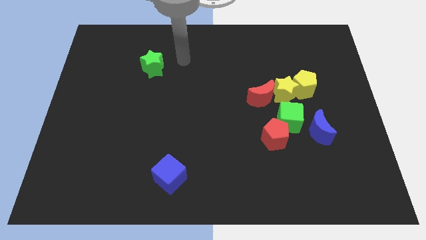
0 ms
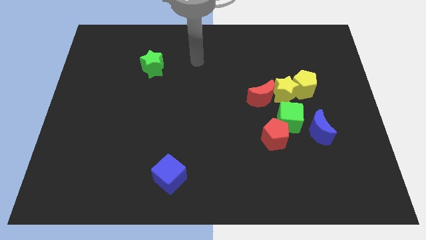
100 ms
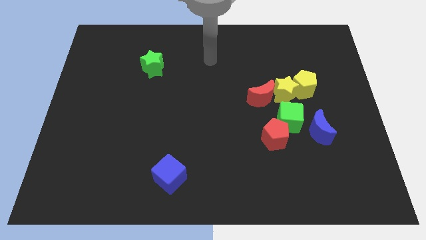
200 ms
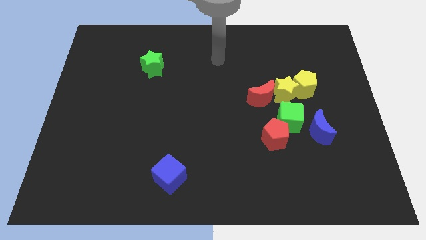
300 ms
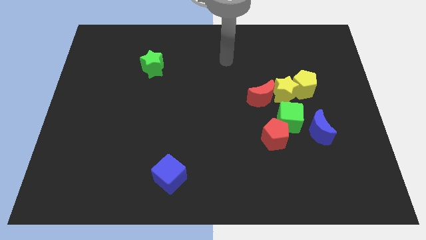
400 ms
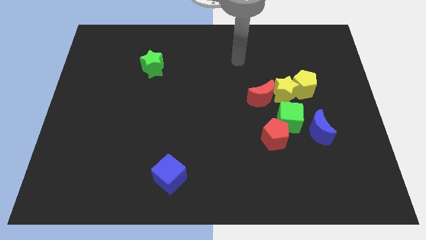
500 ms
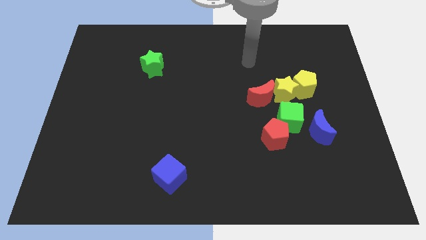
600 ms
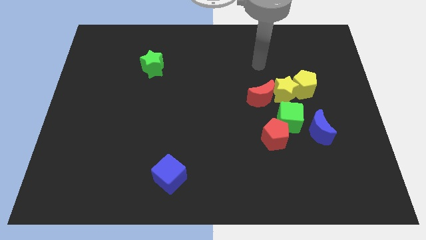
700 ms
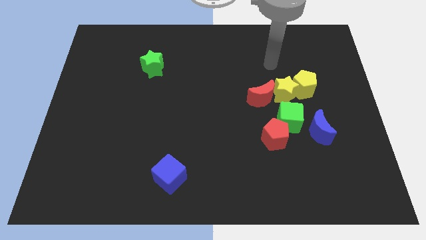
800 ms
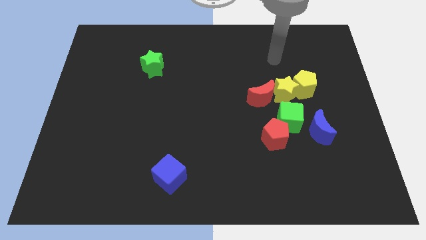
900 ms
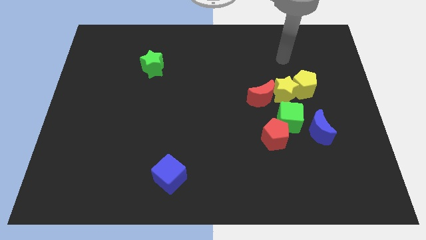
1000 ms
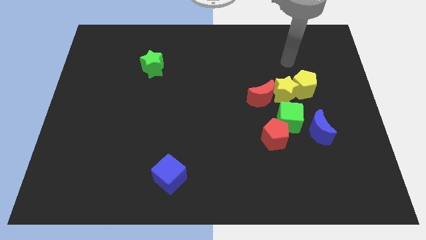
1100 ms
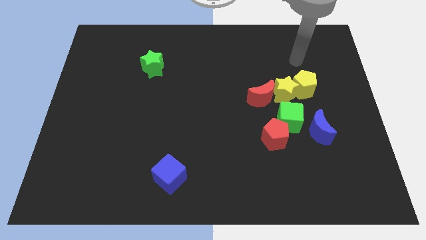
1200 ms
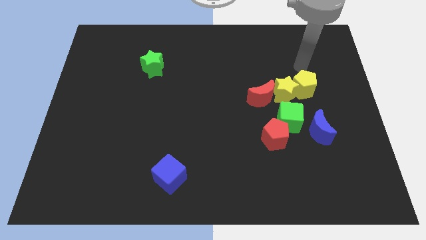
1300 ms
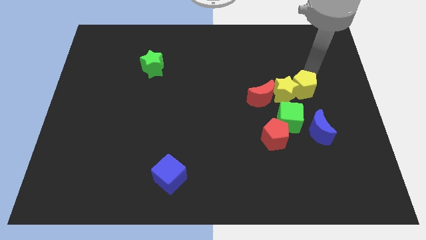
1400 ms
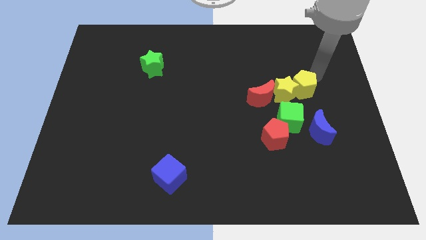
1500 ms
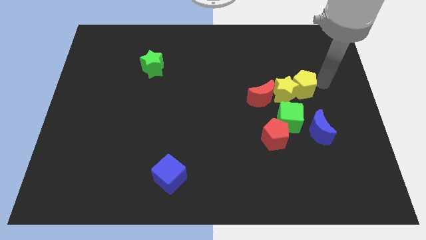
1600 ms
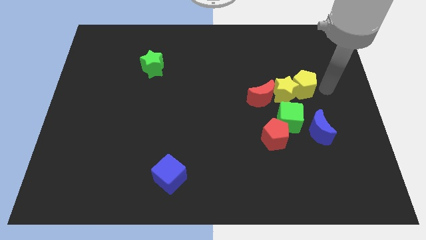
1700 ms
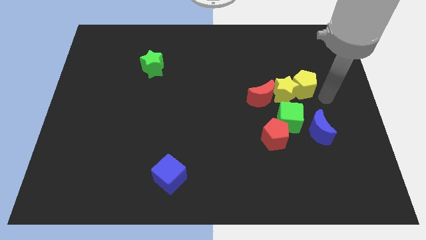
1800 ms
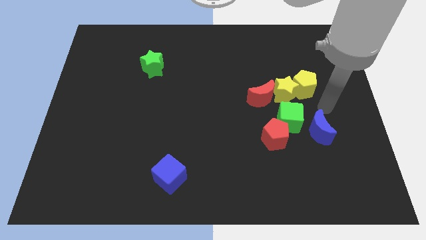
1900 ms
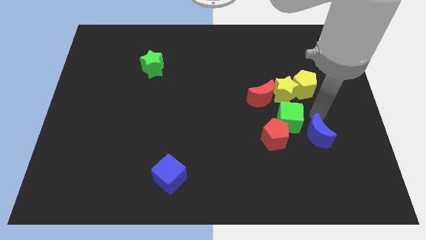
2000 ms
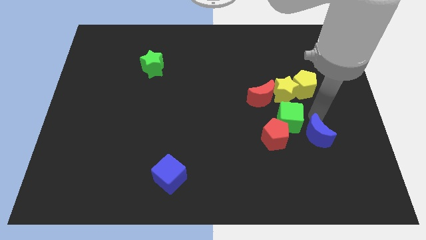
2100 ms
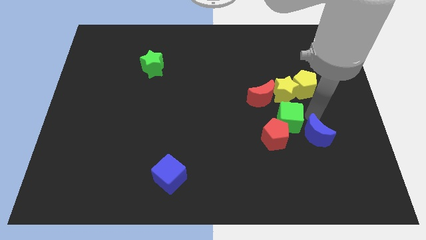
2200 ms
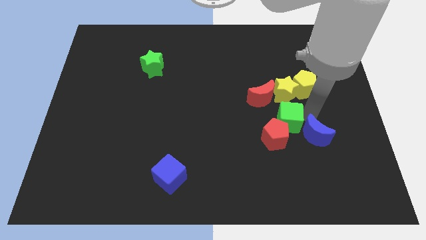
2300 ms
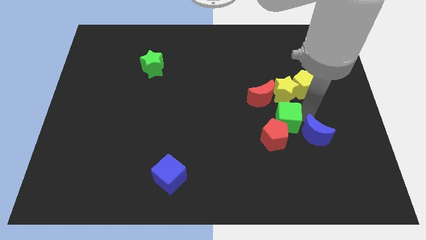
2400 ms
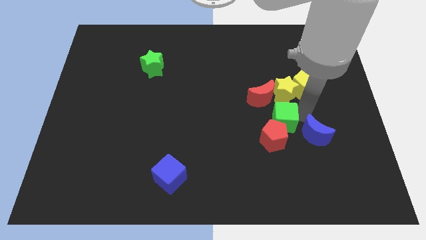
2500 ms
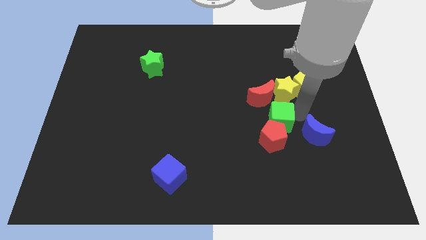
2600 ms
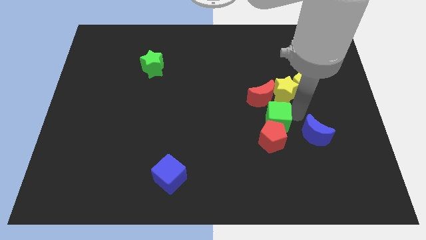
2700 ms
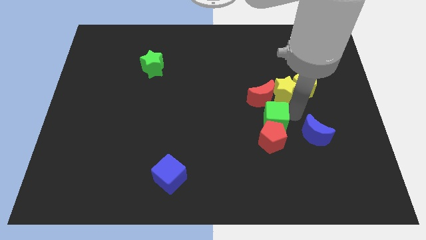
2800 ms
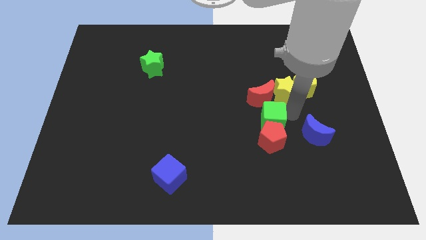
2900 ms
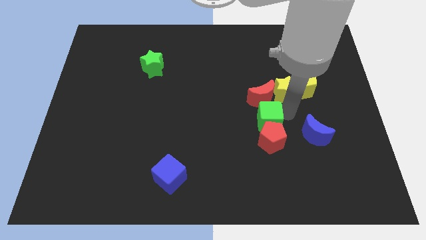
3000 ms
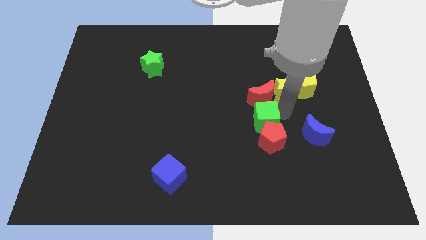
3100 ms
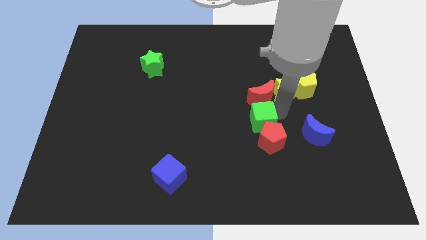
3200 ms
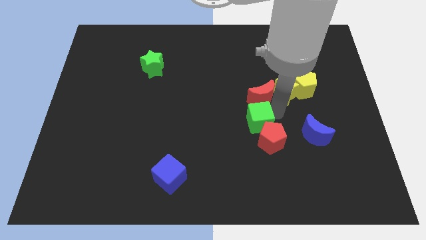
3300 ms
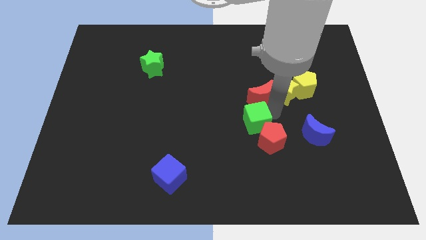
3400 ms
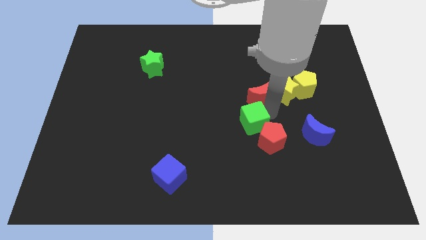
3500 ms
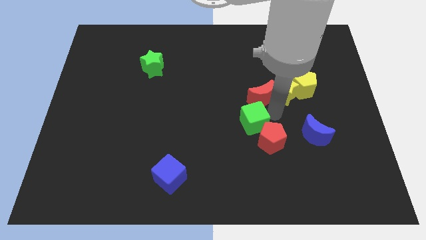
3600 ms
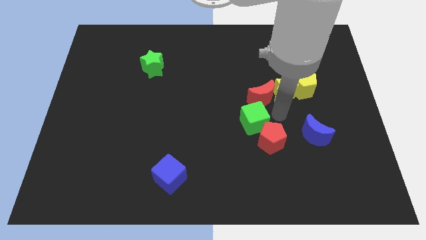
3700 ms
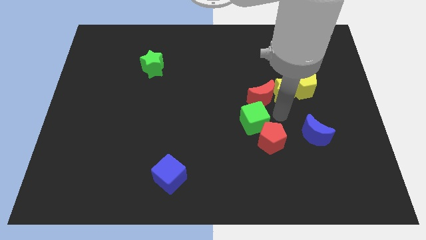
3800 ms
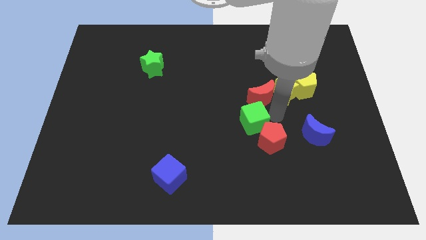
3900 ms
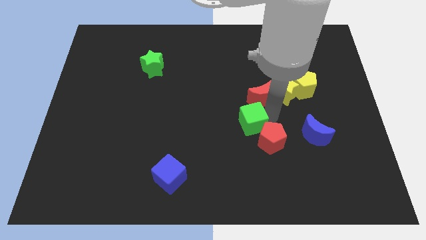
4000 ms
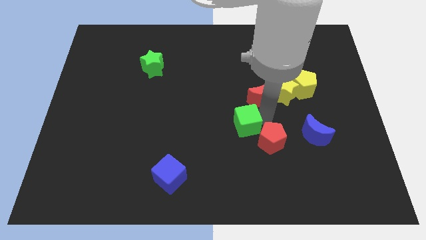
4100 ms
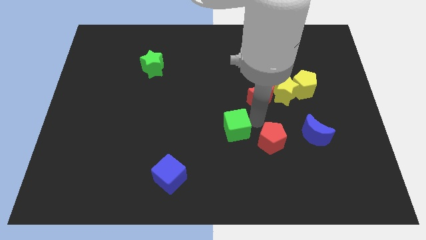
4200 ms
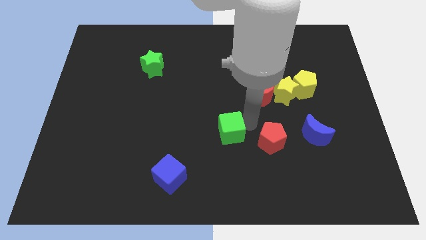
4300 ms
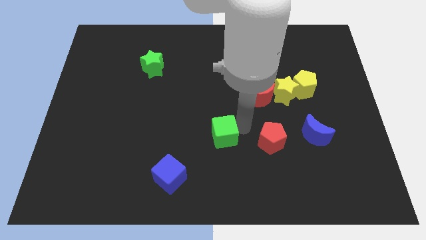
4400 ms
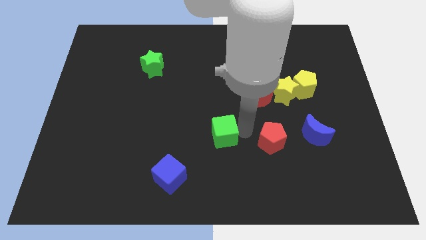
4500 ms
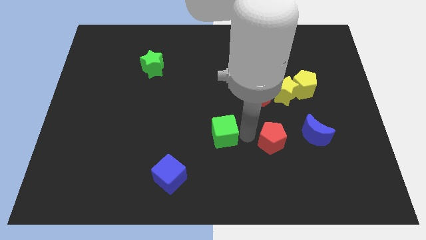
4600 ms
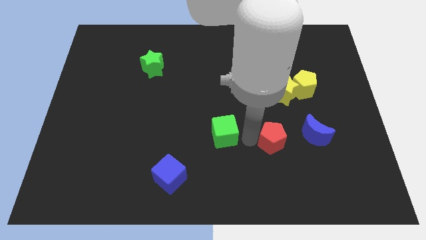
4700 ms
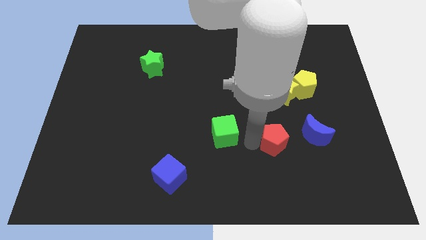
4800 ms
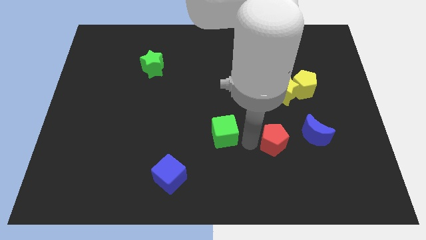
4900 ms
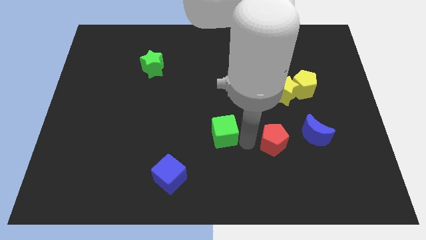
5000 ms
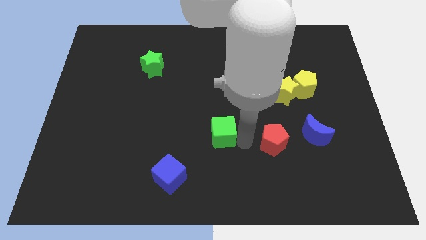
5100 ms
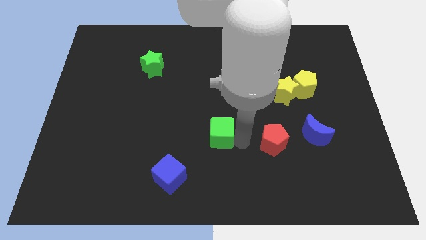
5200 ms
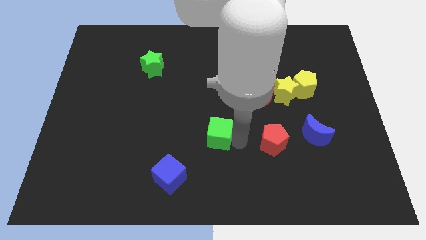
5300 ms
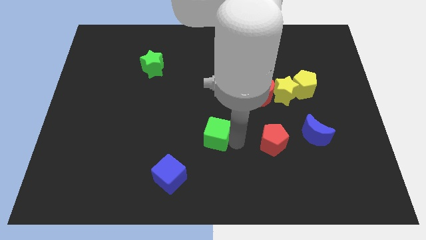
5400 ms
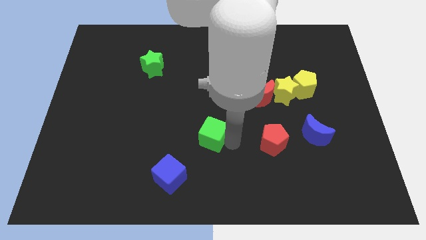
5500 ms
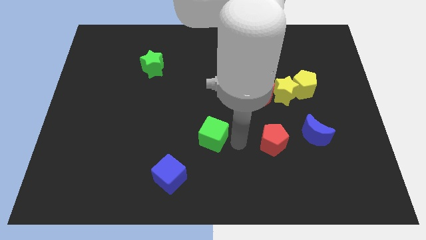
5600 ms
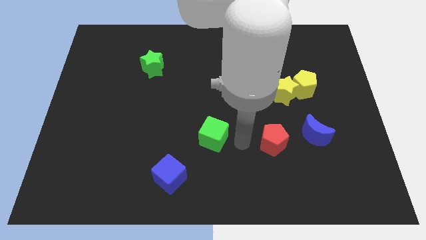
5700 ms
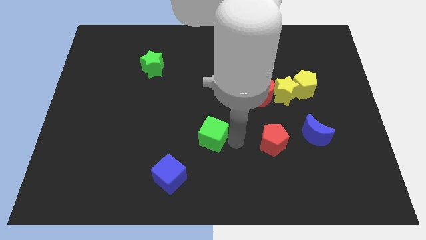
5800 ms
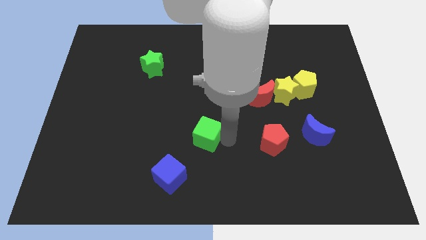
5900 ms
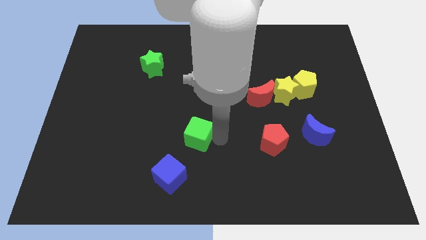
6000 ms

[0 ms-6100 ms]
push the green cube to the left

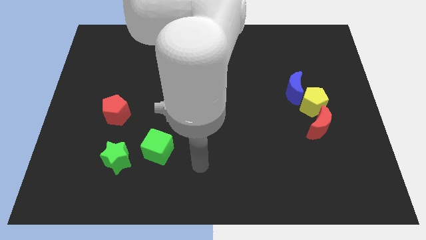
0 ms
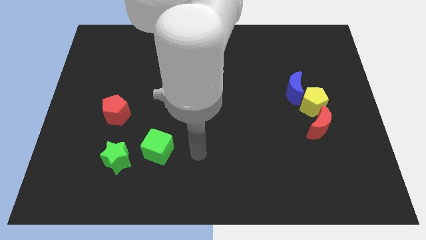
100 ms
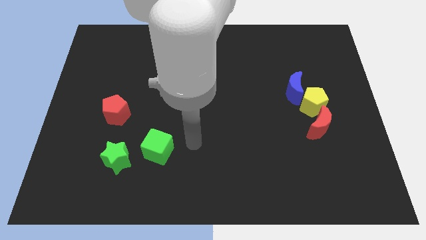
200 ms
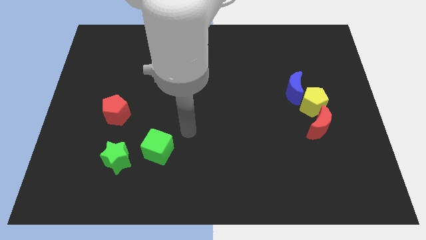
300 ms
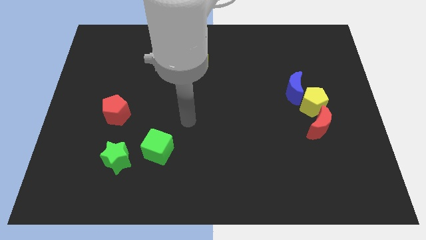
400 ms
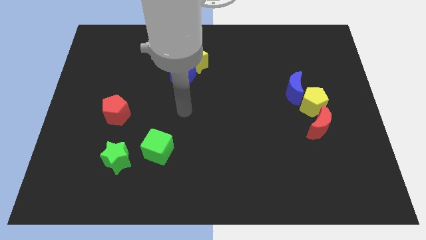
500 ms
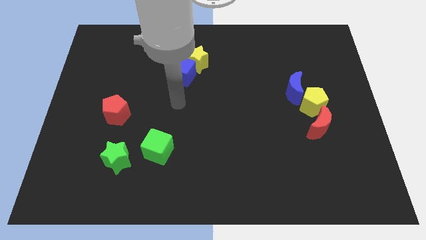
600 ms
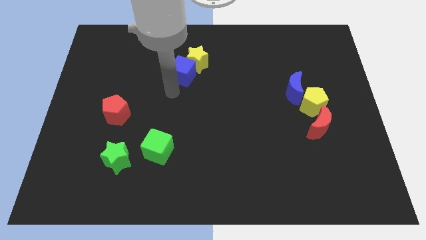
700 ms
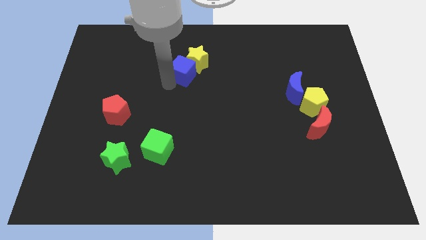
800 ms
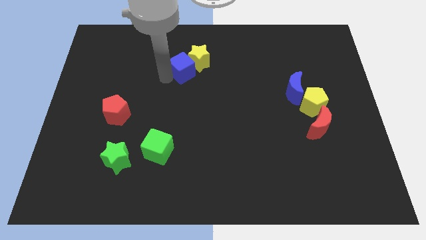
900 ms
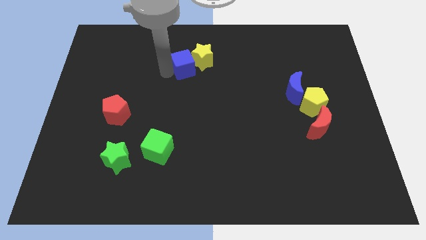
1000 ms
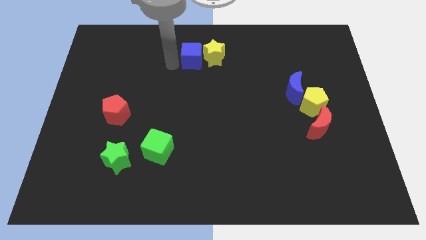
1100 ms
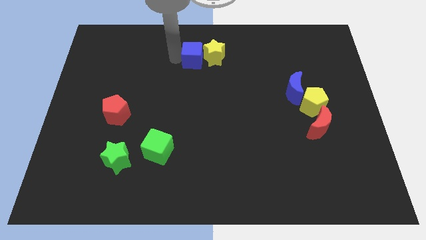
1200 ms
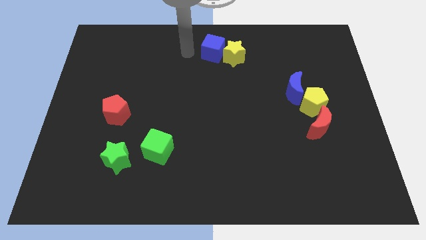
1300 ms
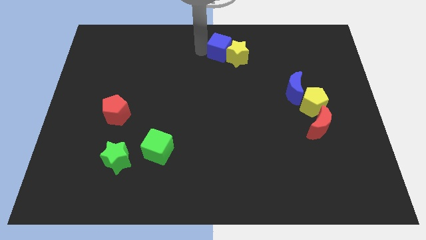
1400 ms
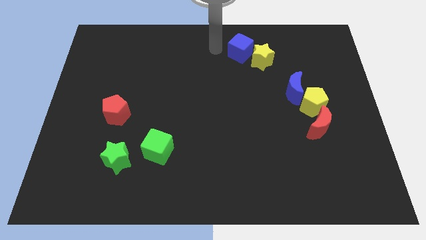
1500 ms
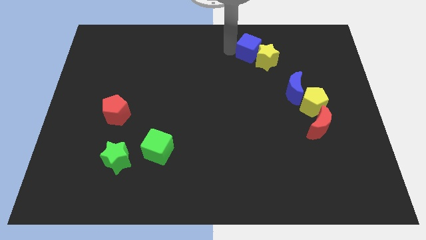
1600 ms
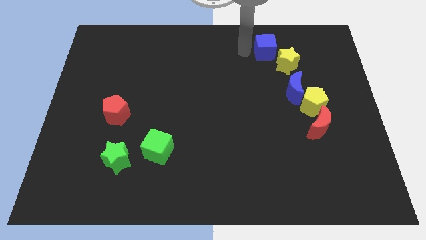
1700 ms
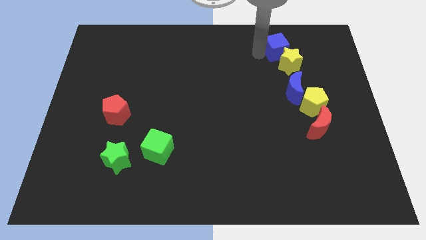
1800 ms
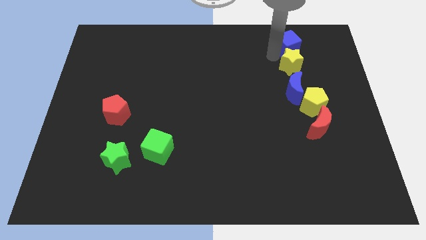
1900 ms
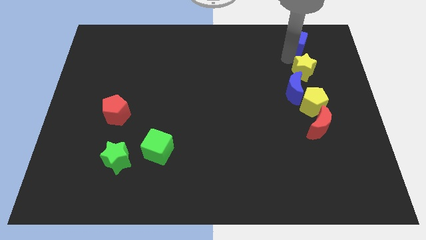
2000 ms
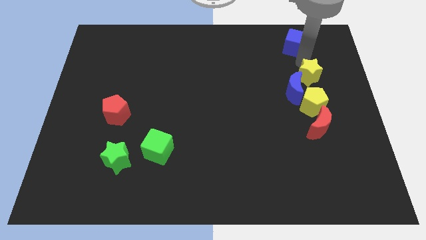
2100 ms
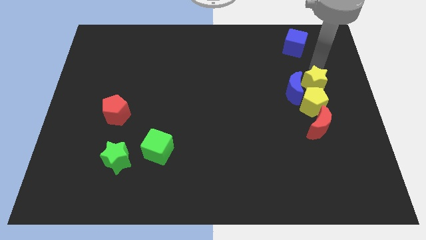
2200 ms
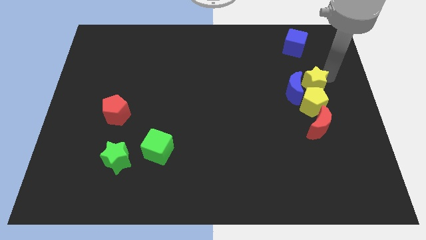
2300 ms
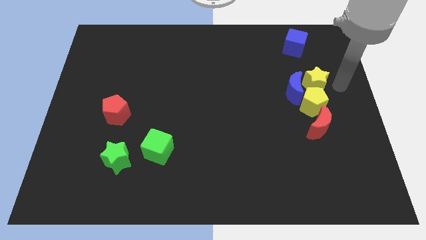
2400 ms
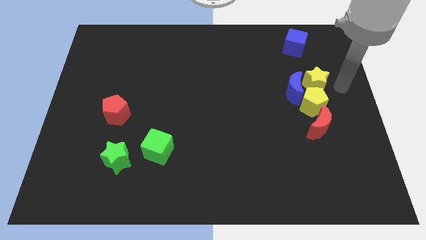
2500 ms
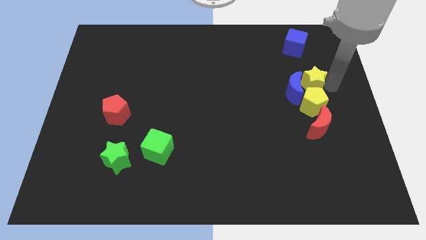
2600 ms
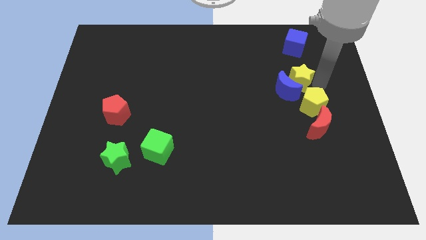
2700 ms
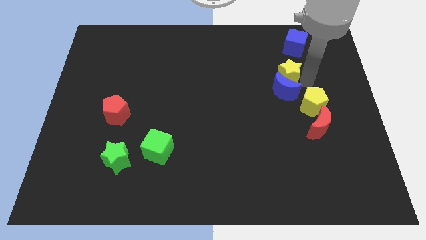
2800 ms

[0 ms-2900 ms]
move the yellow star downwards and to the right a little bit
